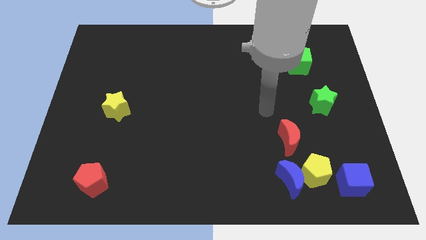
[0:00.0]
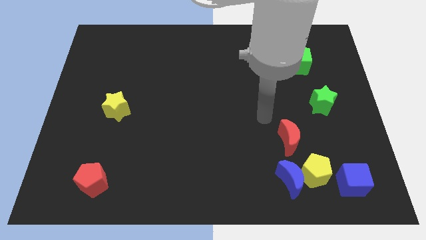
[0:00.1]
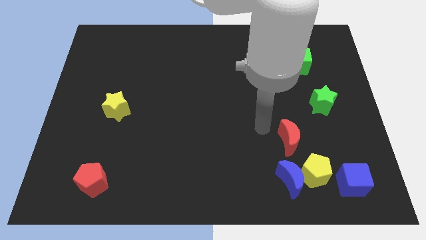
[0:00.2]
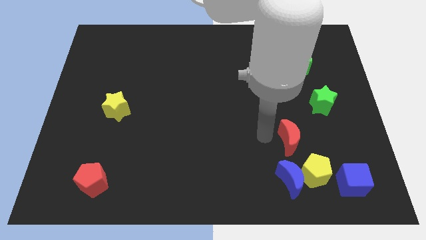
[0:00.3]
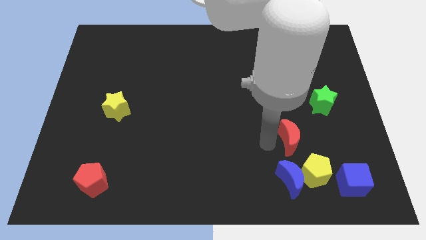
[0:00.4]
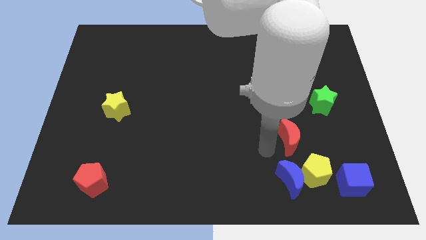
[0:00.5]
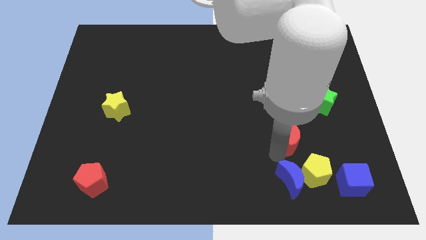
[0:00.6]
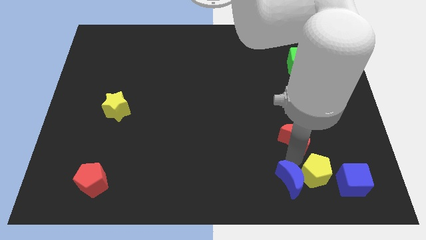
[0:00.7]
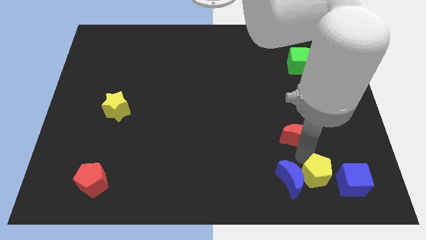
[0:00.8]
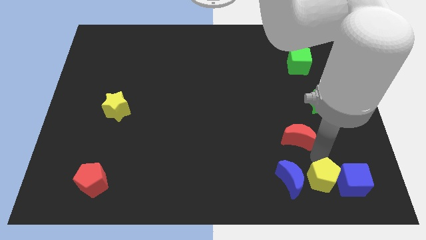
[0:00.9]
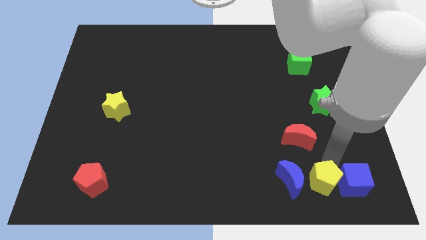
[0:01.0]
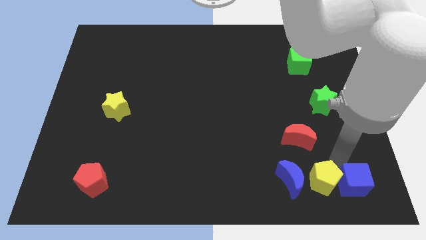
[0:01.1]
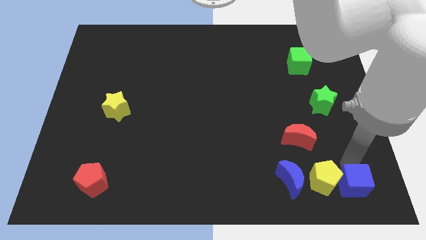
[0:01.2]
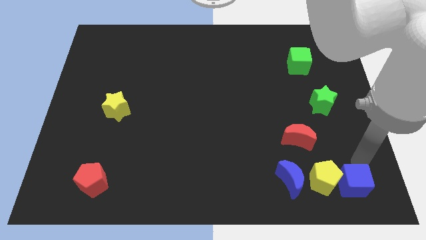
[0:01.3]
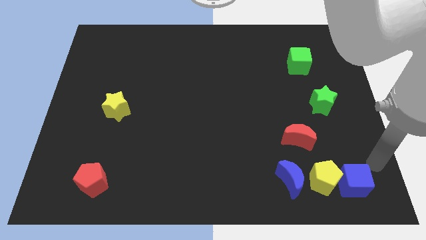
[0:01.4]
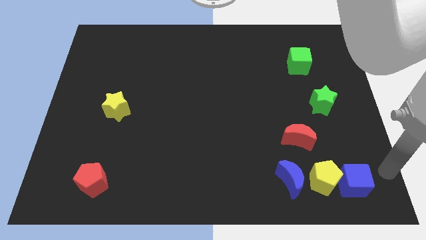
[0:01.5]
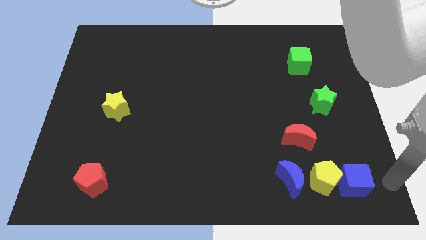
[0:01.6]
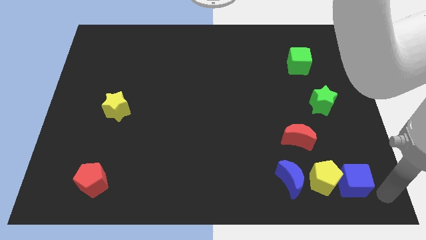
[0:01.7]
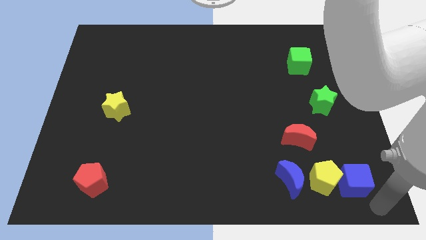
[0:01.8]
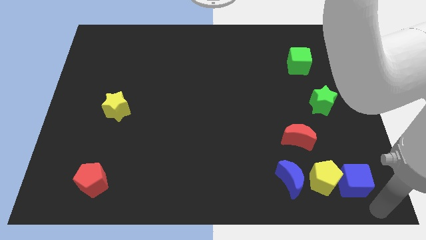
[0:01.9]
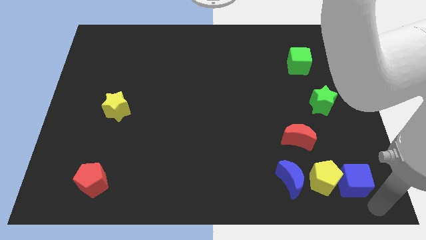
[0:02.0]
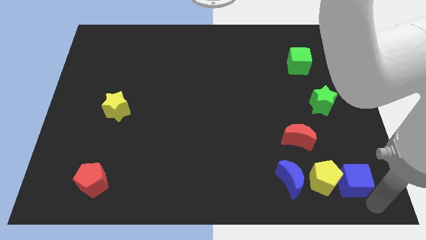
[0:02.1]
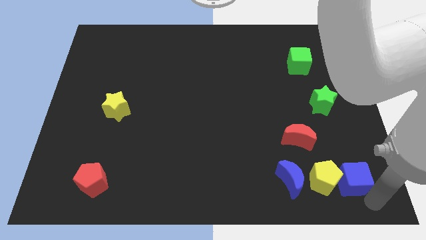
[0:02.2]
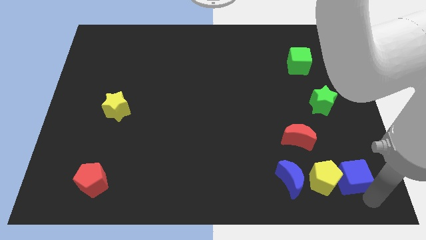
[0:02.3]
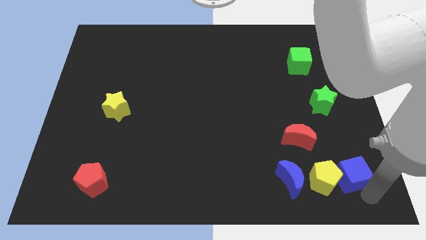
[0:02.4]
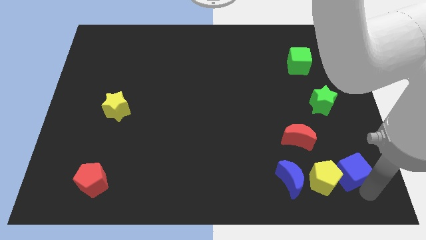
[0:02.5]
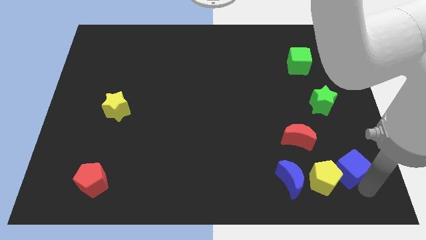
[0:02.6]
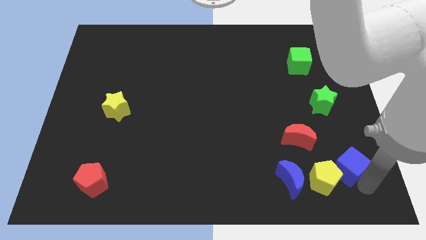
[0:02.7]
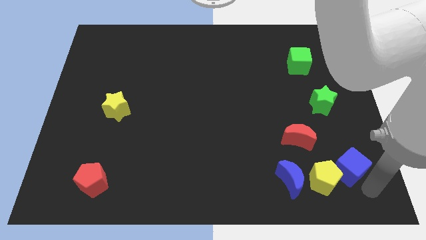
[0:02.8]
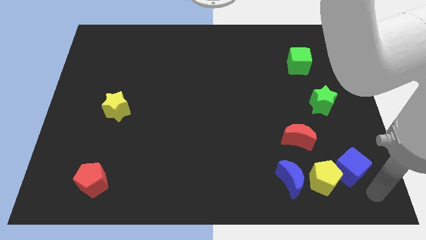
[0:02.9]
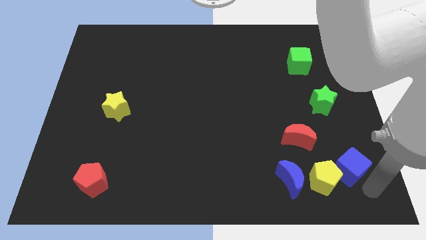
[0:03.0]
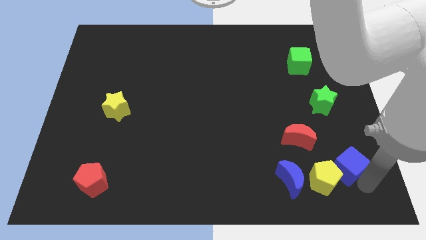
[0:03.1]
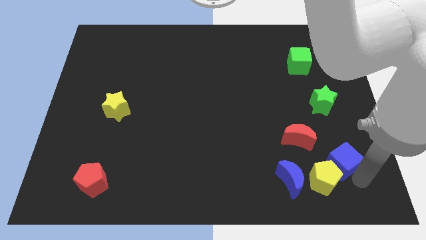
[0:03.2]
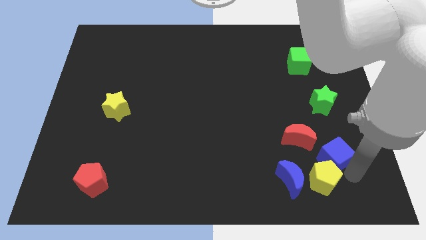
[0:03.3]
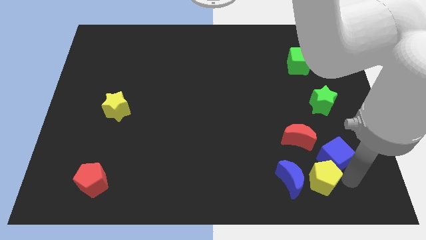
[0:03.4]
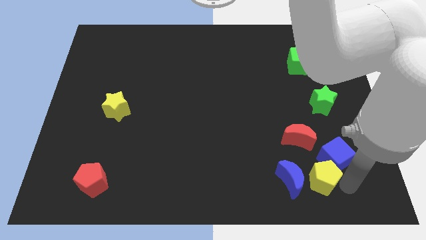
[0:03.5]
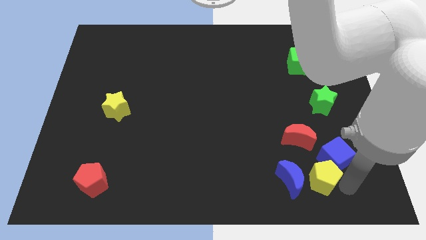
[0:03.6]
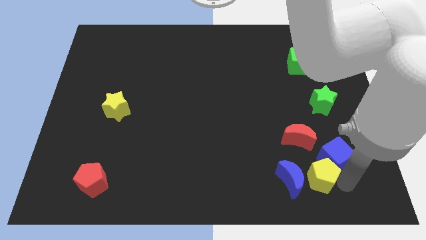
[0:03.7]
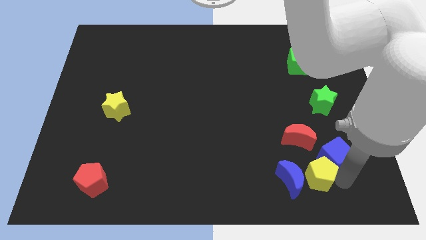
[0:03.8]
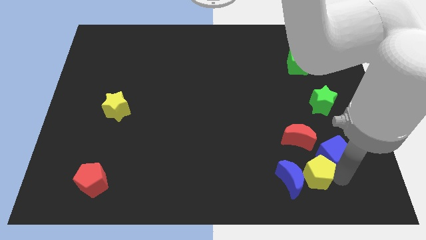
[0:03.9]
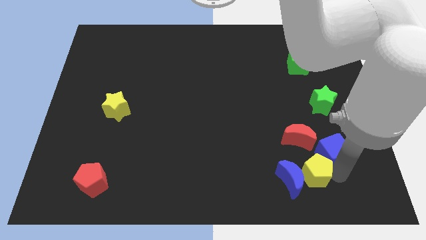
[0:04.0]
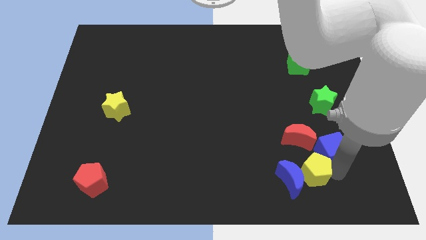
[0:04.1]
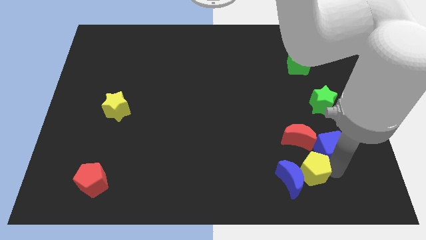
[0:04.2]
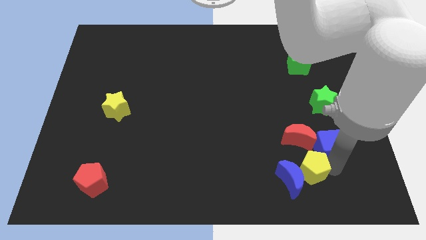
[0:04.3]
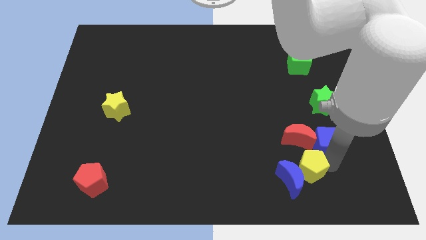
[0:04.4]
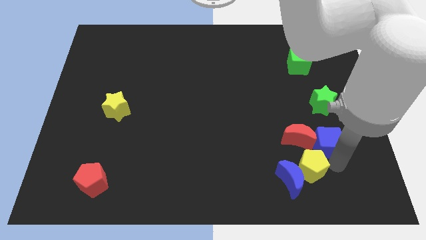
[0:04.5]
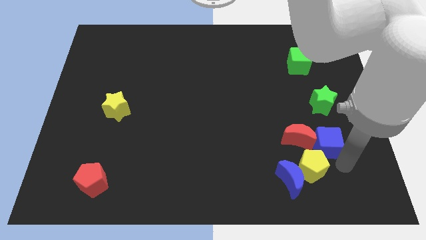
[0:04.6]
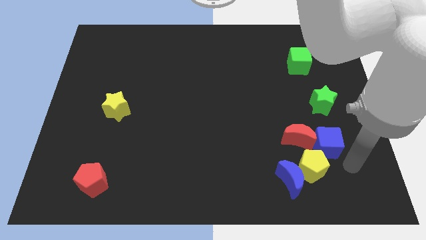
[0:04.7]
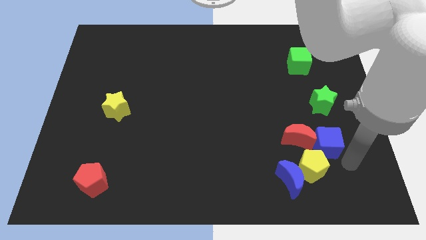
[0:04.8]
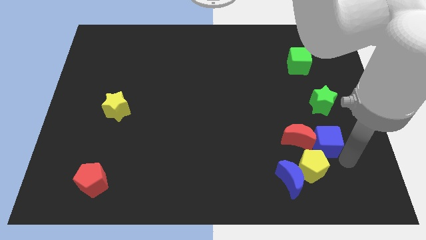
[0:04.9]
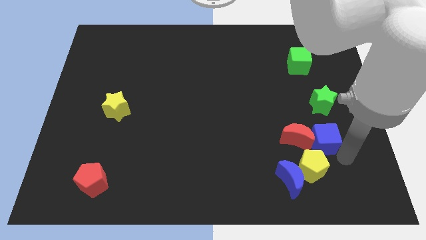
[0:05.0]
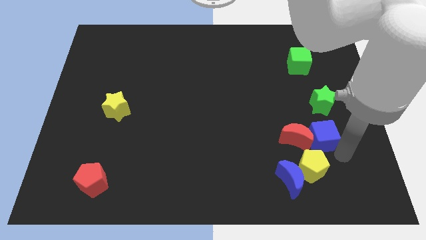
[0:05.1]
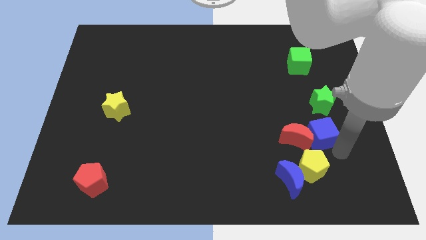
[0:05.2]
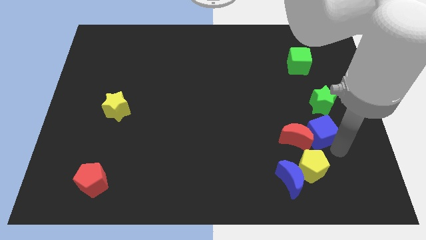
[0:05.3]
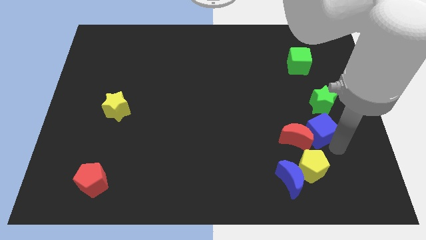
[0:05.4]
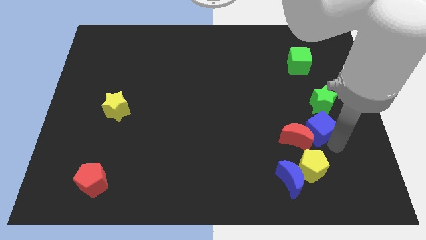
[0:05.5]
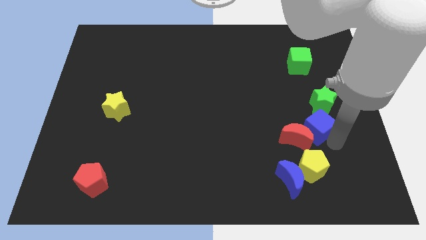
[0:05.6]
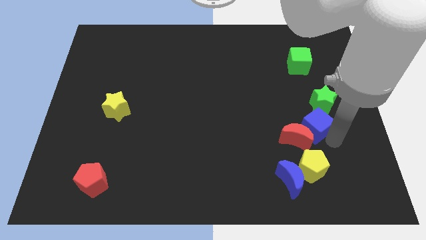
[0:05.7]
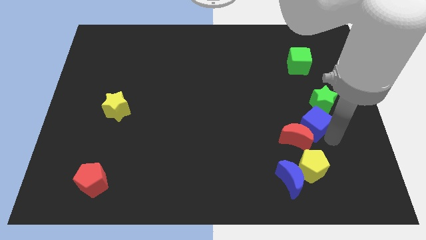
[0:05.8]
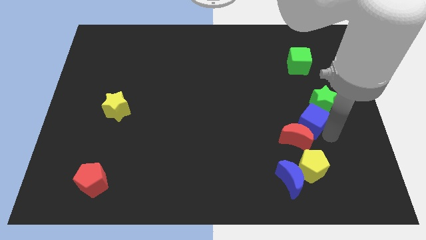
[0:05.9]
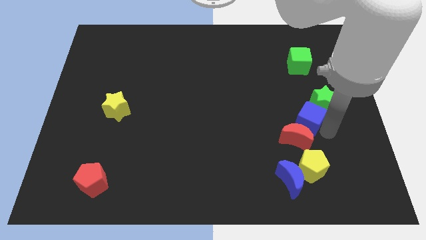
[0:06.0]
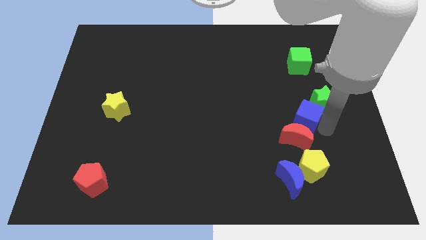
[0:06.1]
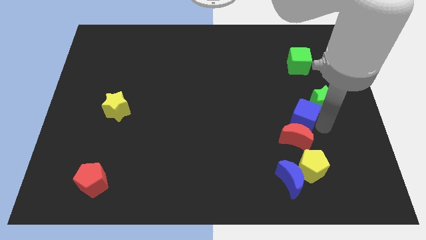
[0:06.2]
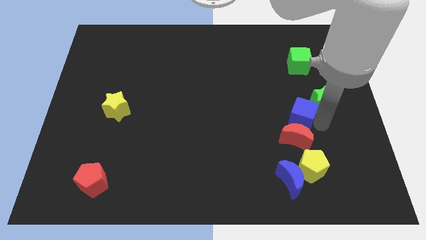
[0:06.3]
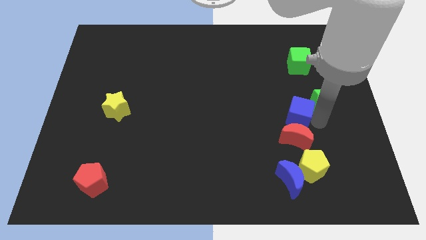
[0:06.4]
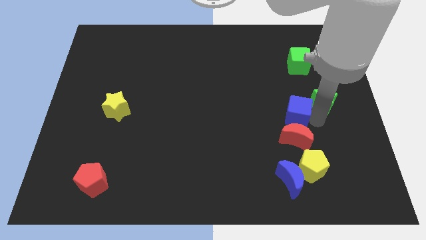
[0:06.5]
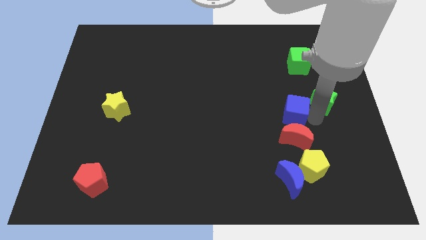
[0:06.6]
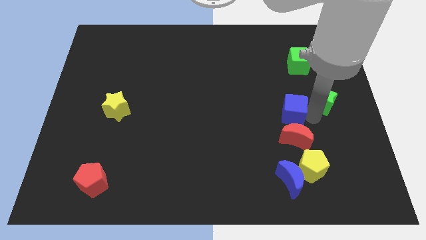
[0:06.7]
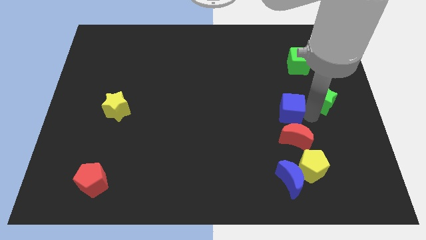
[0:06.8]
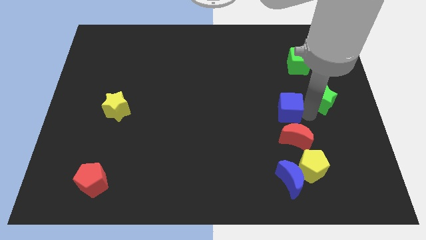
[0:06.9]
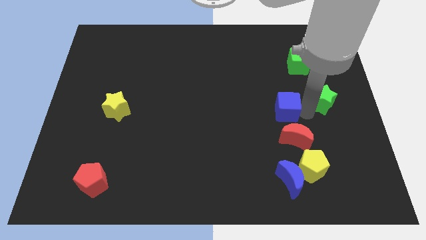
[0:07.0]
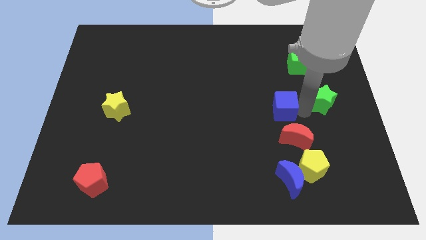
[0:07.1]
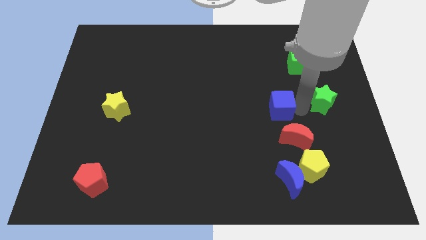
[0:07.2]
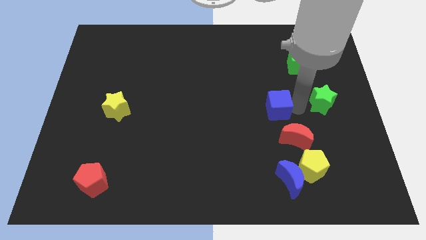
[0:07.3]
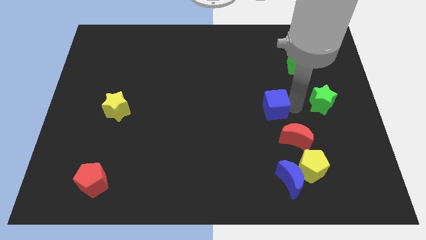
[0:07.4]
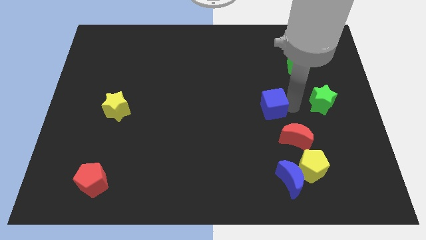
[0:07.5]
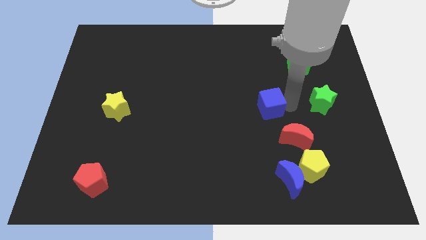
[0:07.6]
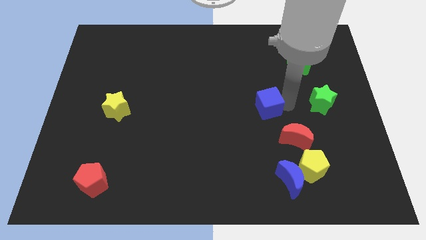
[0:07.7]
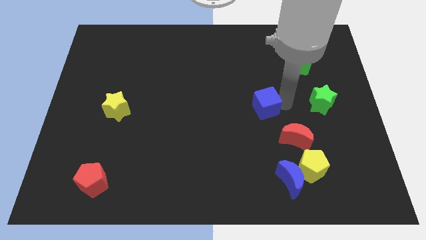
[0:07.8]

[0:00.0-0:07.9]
slide the blue cube to the center
